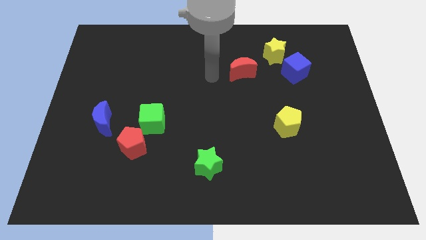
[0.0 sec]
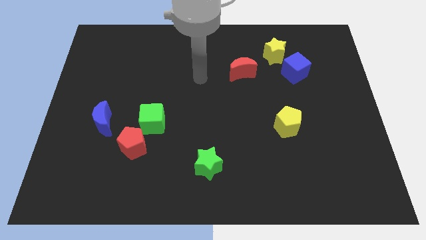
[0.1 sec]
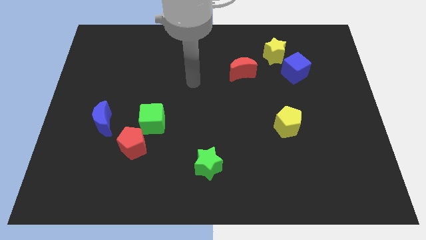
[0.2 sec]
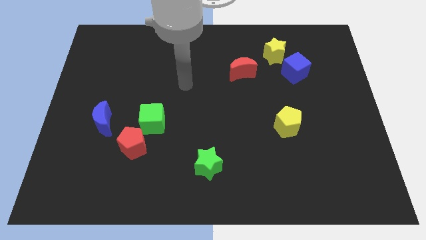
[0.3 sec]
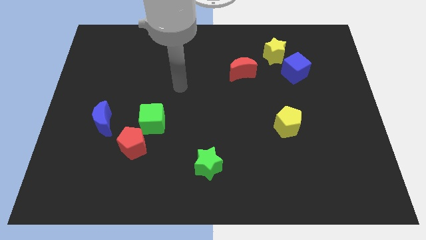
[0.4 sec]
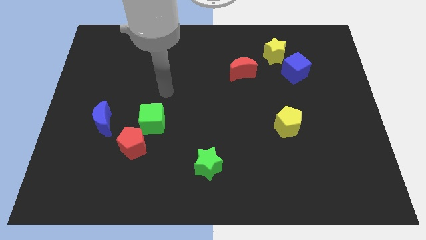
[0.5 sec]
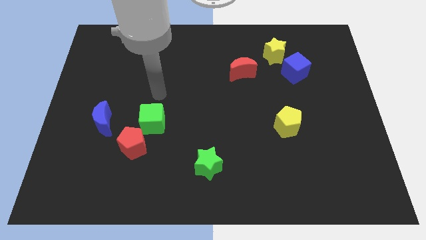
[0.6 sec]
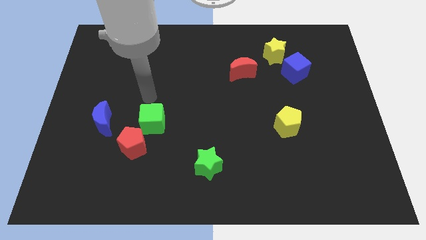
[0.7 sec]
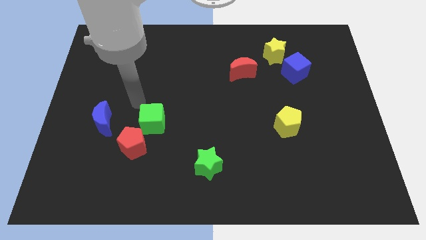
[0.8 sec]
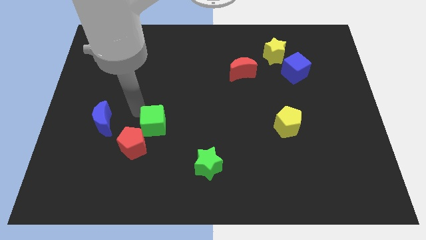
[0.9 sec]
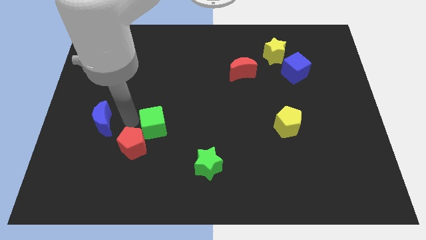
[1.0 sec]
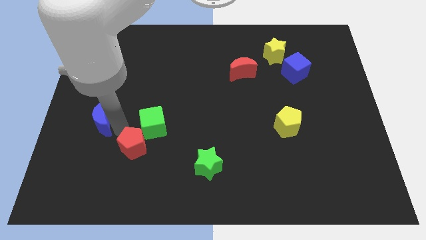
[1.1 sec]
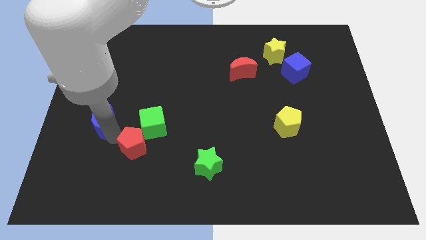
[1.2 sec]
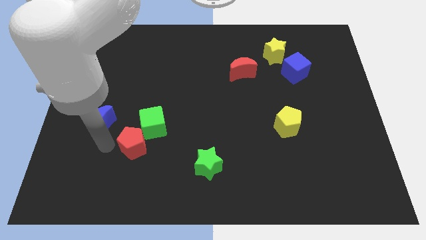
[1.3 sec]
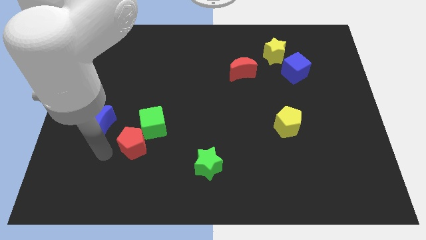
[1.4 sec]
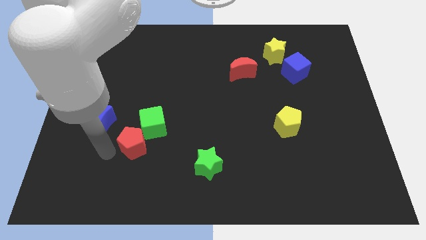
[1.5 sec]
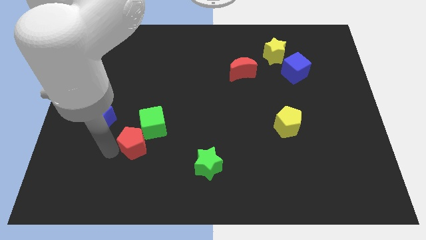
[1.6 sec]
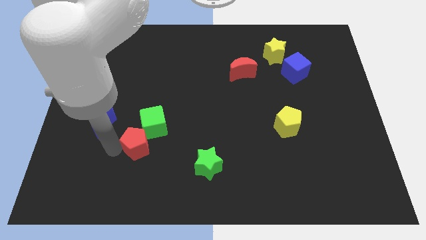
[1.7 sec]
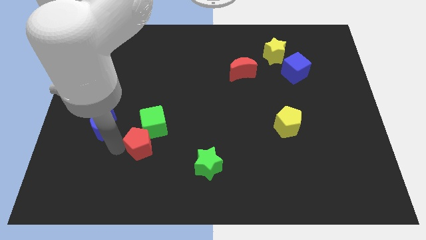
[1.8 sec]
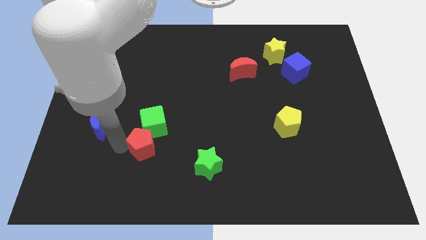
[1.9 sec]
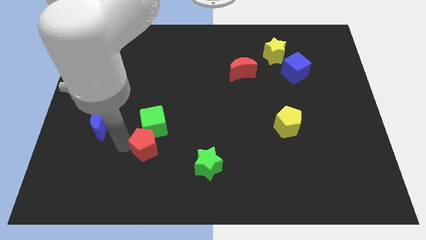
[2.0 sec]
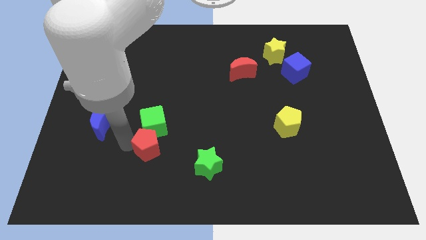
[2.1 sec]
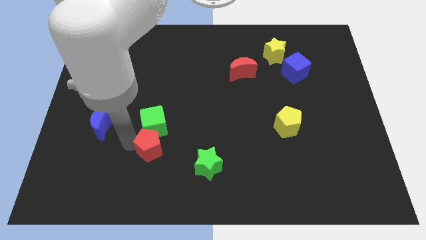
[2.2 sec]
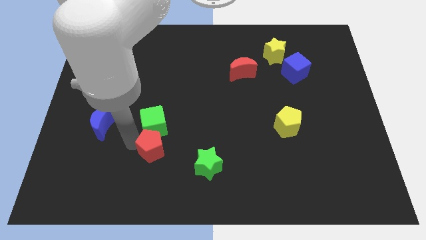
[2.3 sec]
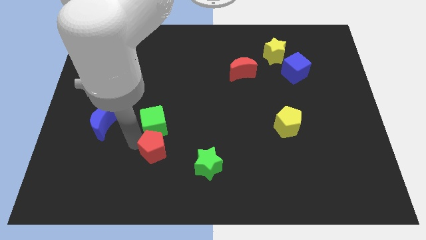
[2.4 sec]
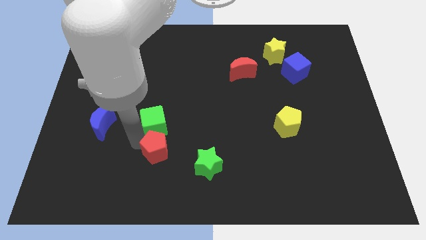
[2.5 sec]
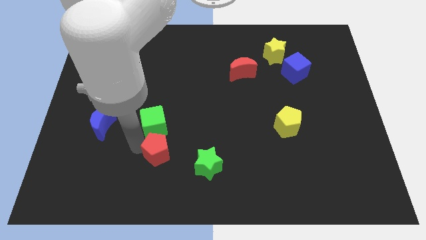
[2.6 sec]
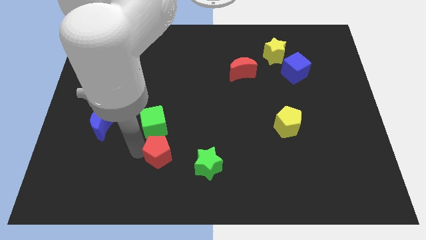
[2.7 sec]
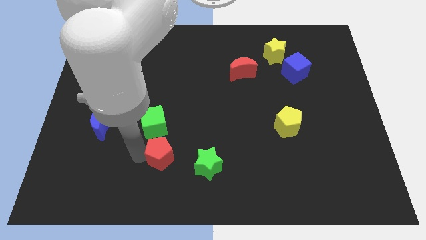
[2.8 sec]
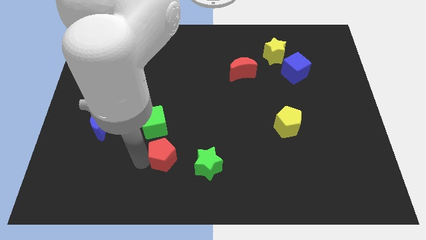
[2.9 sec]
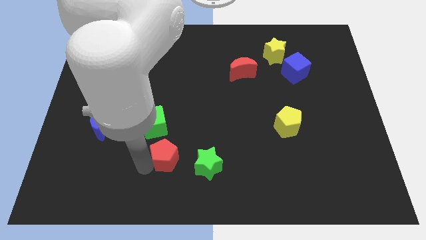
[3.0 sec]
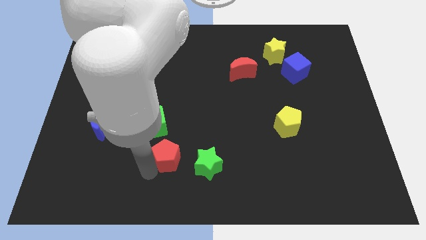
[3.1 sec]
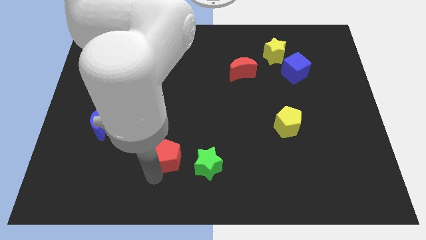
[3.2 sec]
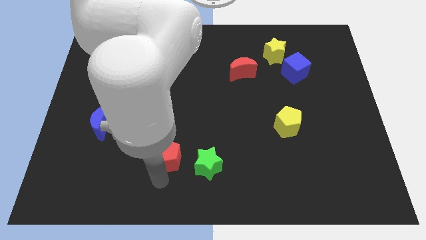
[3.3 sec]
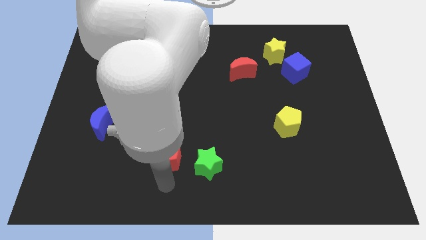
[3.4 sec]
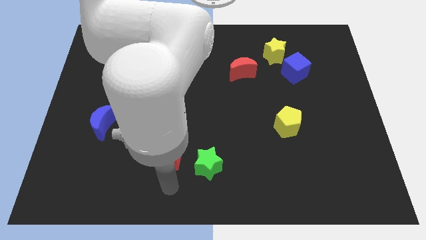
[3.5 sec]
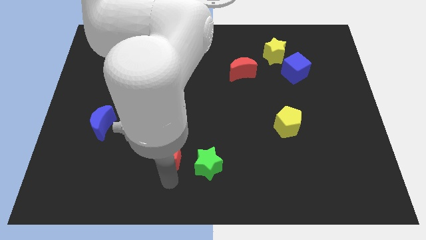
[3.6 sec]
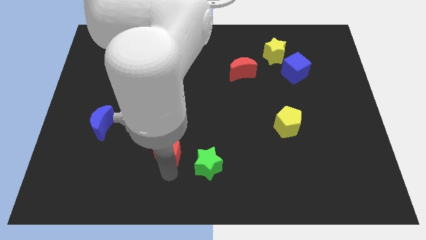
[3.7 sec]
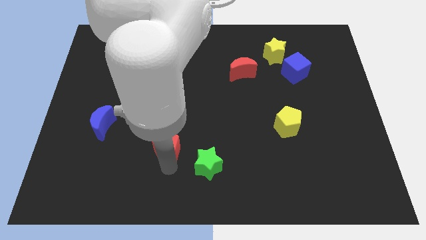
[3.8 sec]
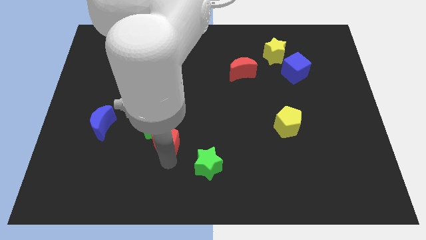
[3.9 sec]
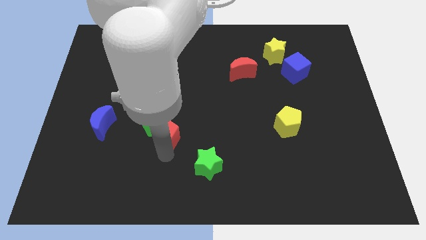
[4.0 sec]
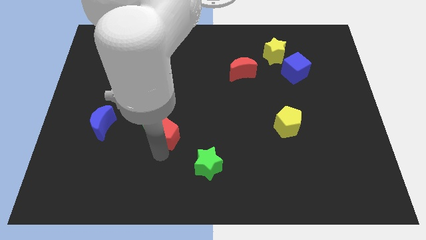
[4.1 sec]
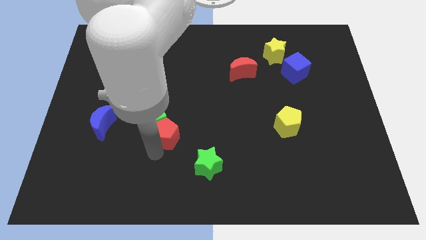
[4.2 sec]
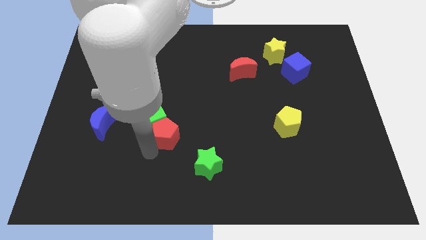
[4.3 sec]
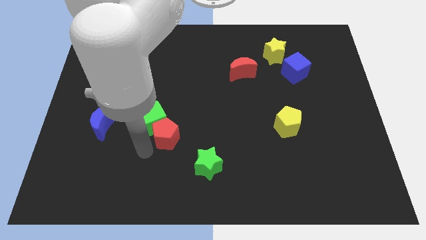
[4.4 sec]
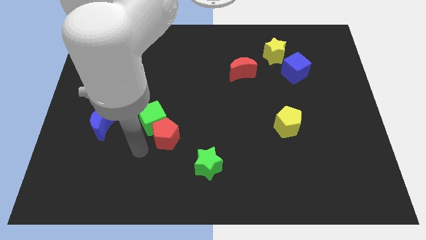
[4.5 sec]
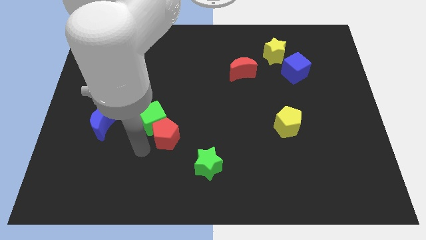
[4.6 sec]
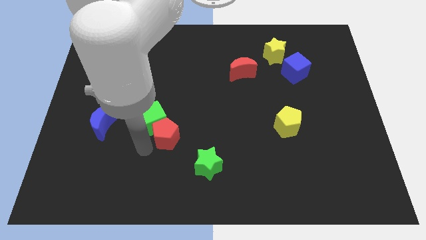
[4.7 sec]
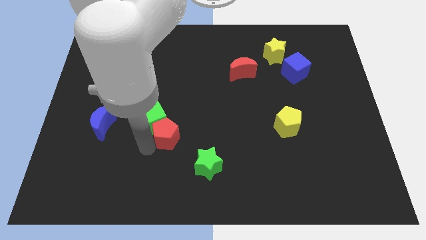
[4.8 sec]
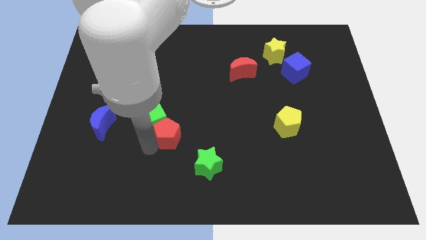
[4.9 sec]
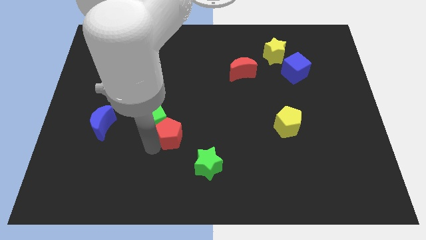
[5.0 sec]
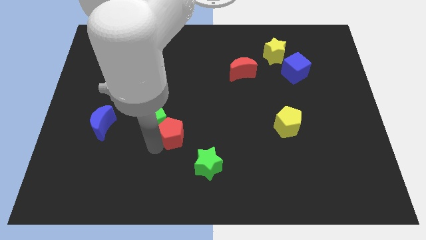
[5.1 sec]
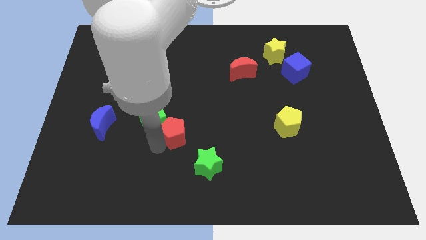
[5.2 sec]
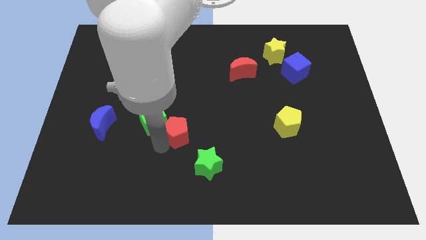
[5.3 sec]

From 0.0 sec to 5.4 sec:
slide the red pentagon to the middle of the board
